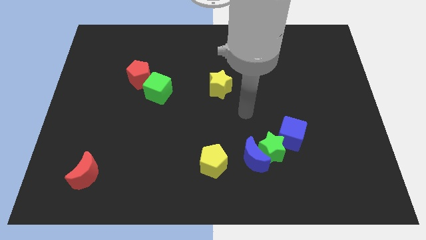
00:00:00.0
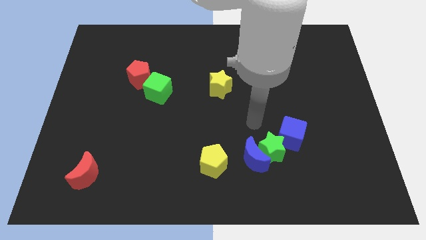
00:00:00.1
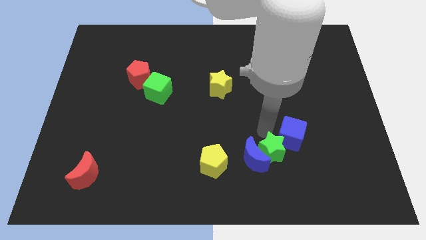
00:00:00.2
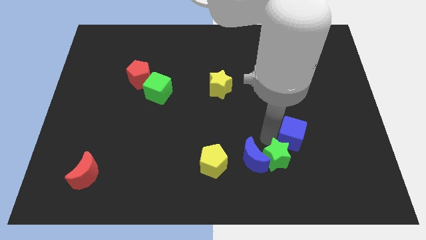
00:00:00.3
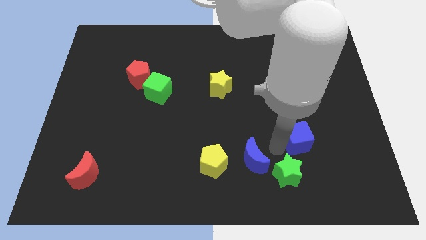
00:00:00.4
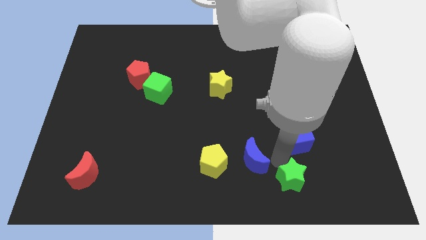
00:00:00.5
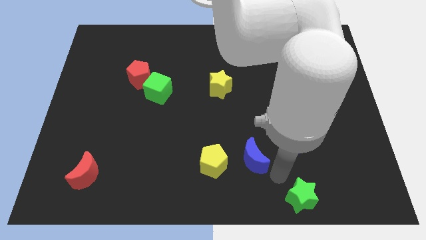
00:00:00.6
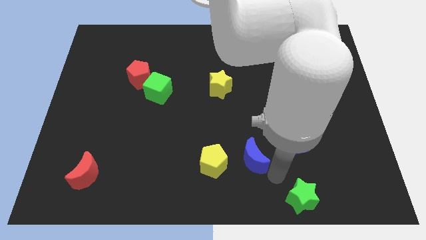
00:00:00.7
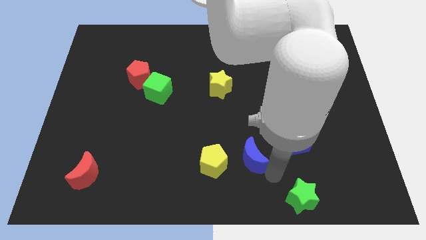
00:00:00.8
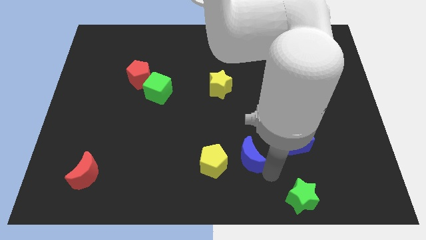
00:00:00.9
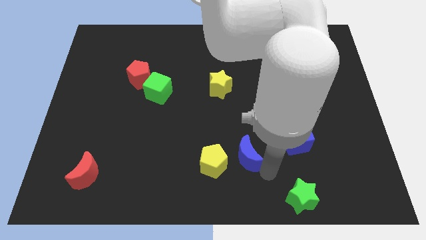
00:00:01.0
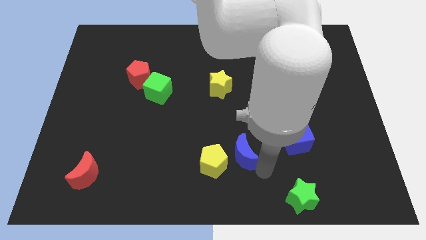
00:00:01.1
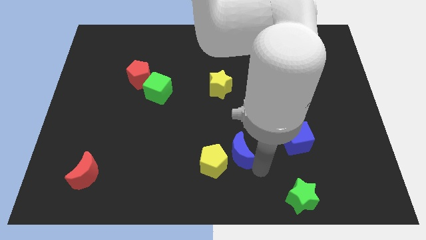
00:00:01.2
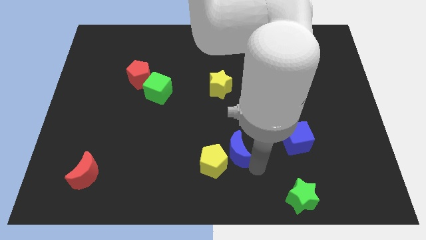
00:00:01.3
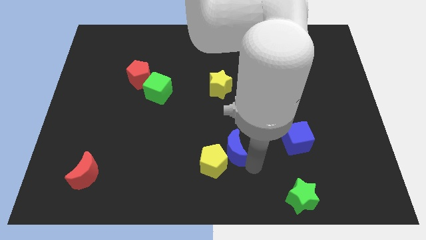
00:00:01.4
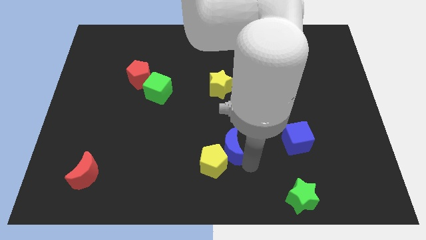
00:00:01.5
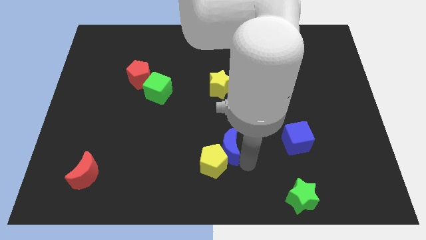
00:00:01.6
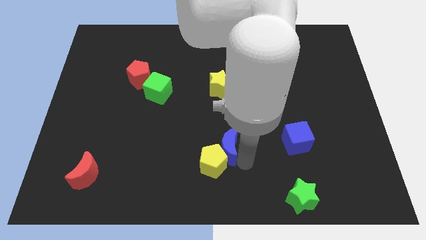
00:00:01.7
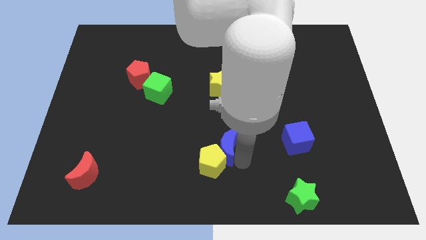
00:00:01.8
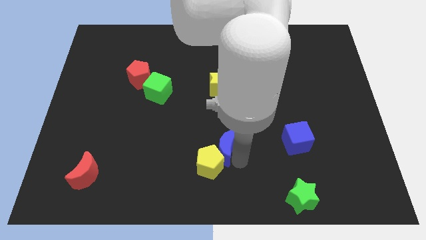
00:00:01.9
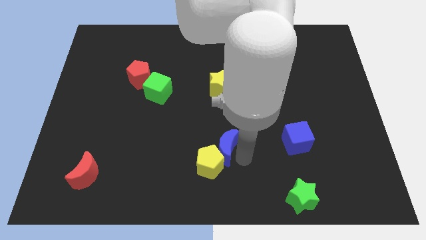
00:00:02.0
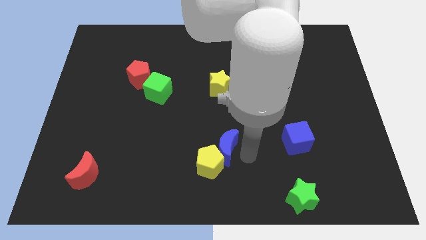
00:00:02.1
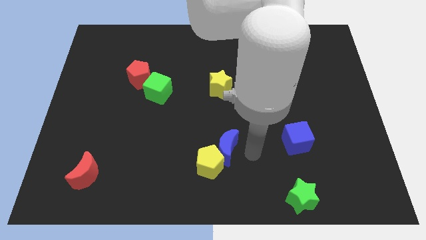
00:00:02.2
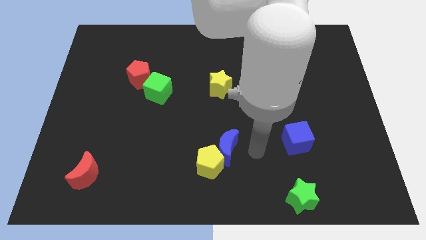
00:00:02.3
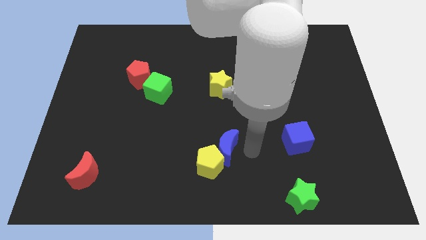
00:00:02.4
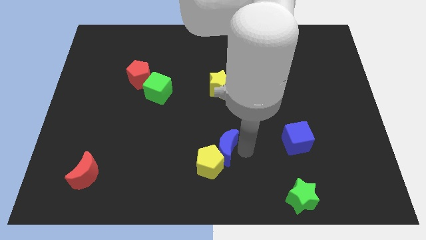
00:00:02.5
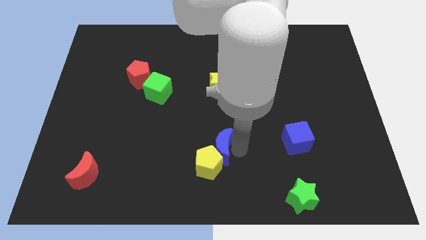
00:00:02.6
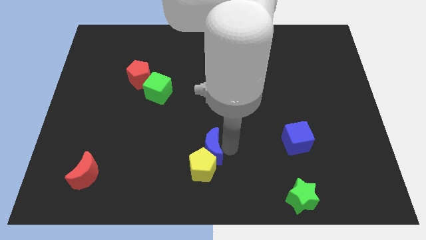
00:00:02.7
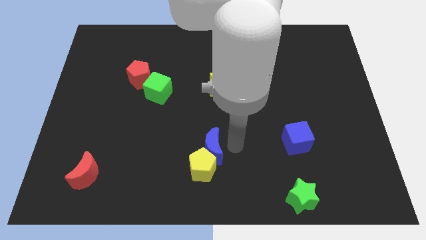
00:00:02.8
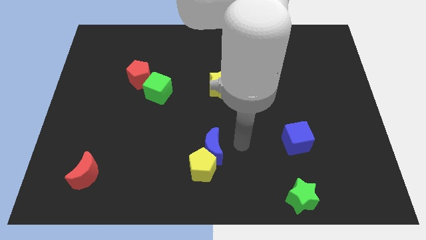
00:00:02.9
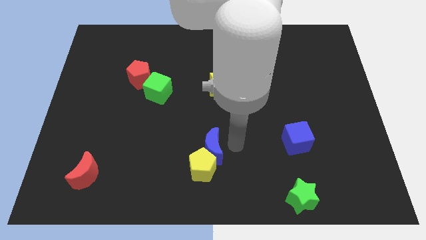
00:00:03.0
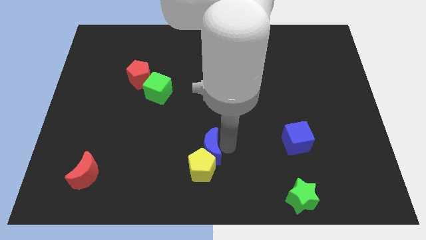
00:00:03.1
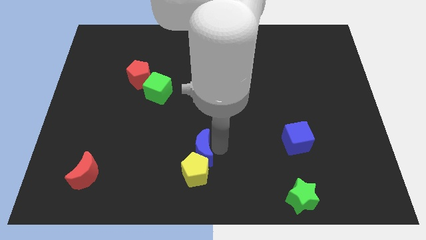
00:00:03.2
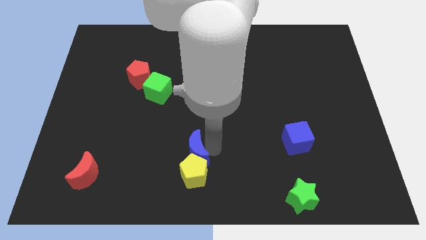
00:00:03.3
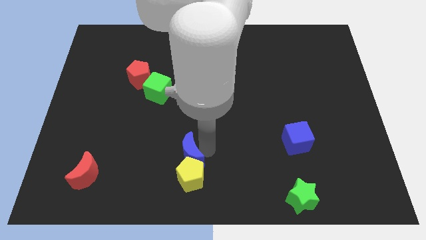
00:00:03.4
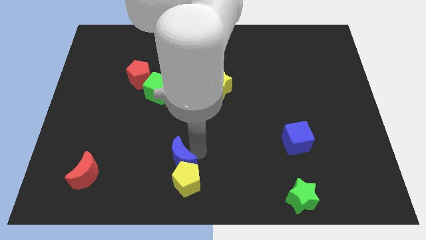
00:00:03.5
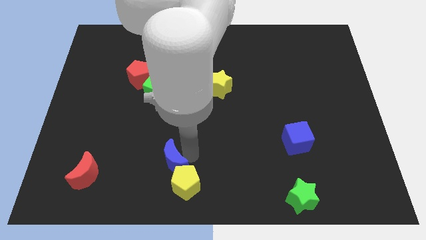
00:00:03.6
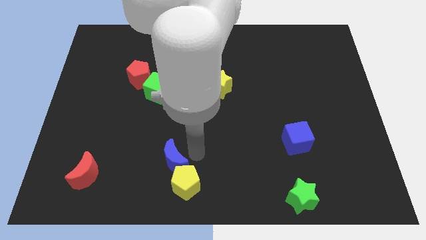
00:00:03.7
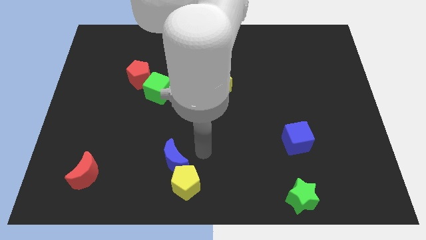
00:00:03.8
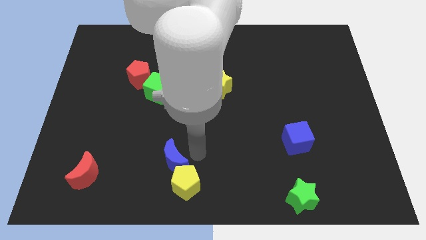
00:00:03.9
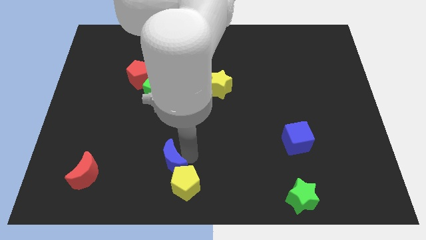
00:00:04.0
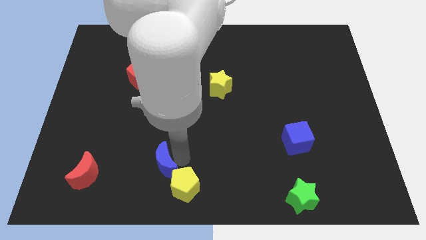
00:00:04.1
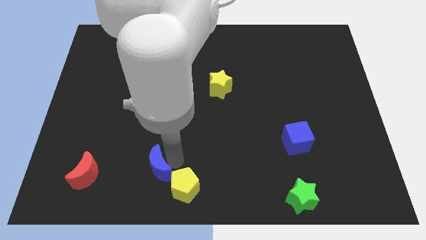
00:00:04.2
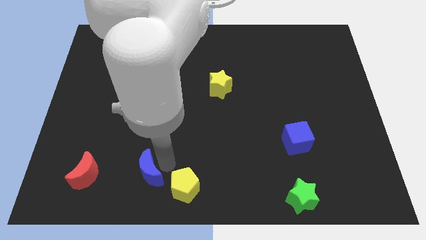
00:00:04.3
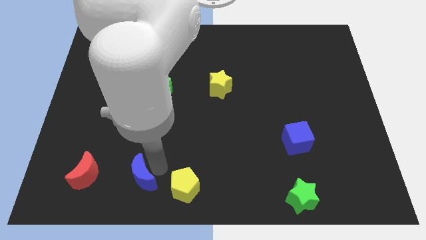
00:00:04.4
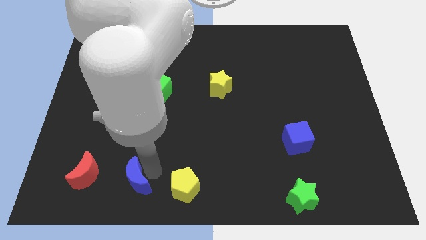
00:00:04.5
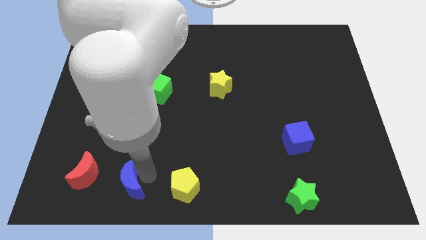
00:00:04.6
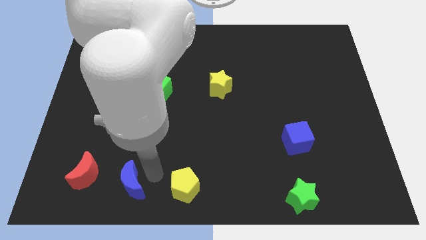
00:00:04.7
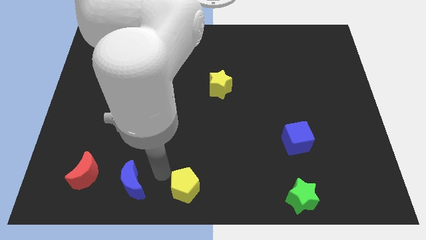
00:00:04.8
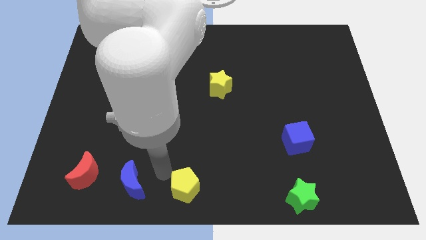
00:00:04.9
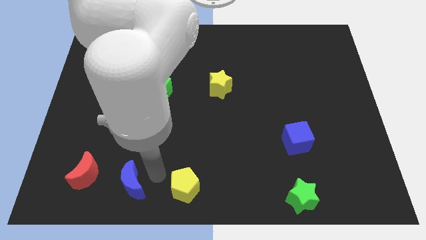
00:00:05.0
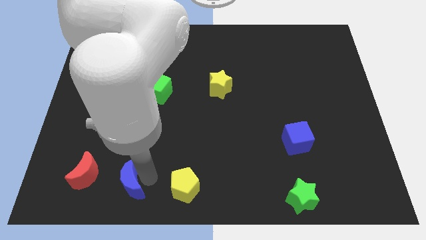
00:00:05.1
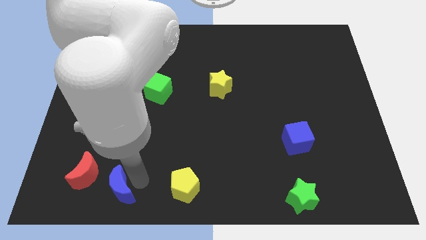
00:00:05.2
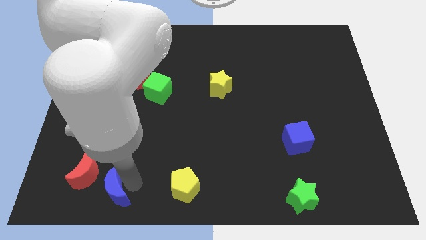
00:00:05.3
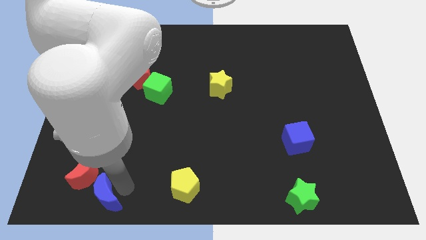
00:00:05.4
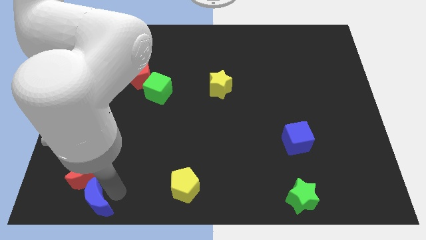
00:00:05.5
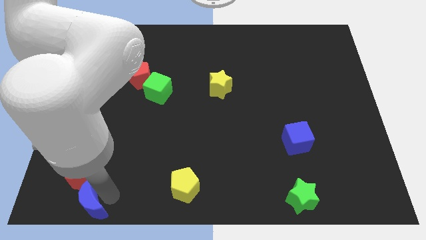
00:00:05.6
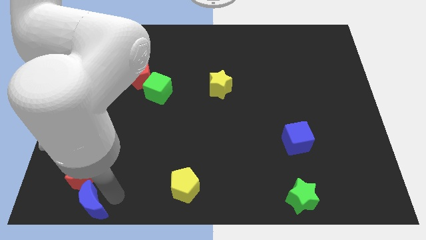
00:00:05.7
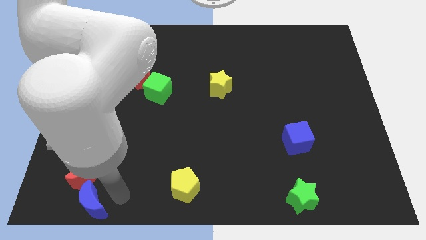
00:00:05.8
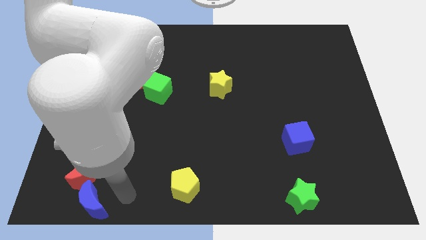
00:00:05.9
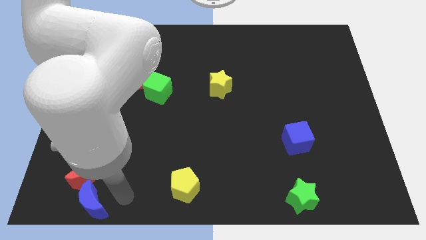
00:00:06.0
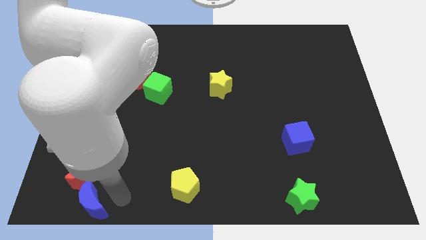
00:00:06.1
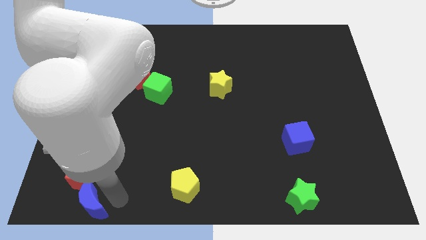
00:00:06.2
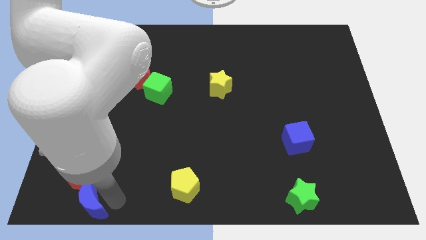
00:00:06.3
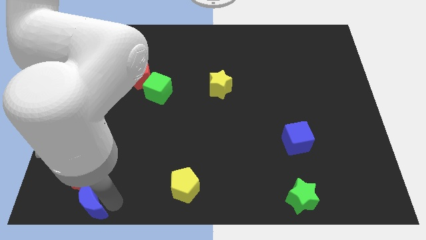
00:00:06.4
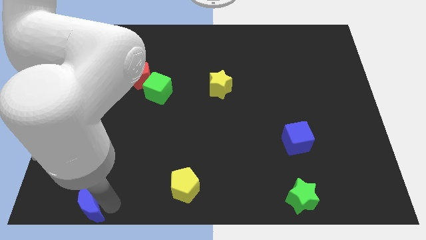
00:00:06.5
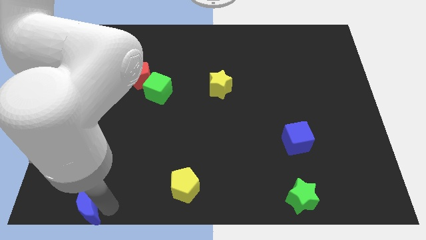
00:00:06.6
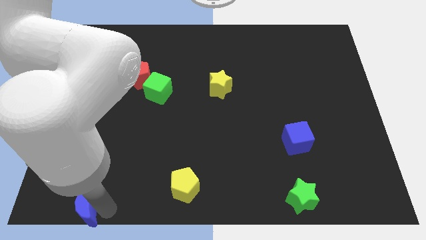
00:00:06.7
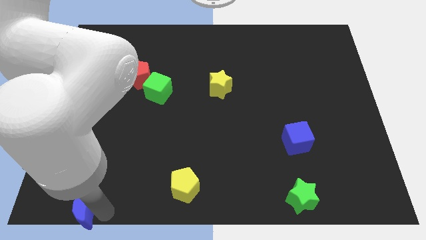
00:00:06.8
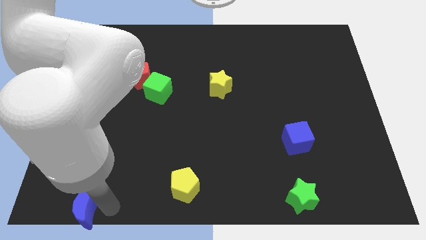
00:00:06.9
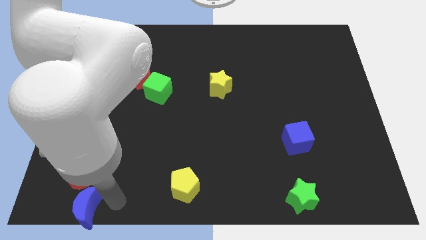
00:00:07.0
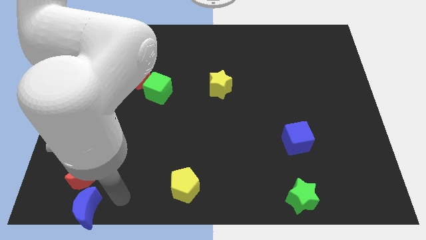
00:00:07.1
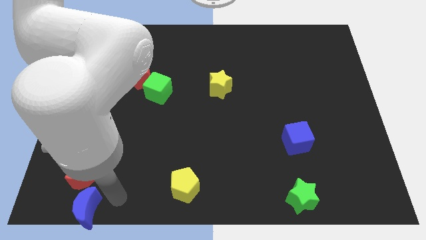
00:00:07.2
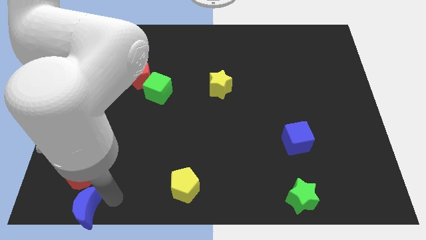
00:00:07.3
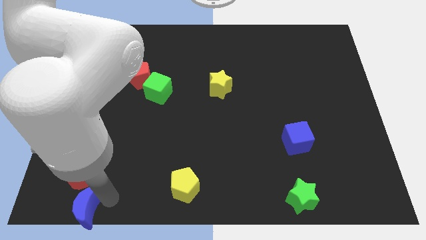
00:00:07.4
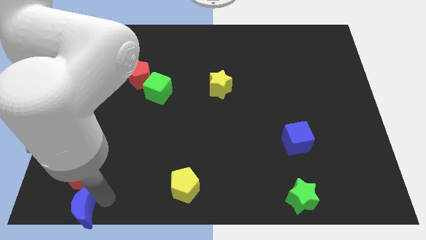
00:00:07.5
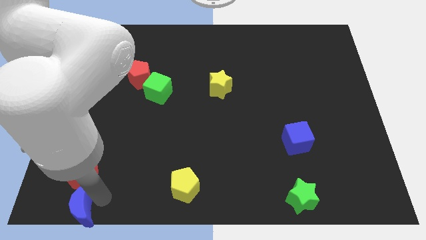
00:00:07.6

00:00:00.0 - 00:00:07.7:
push the blue moon to the lower left corner
